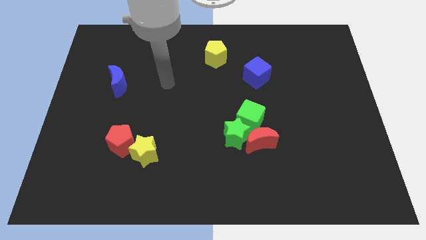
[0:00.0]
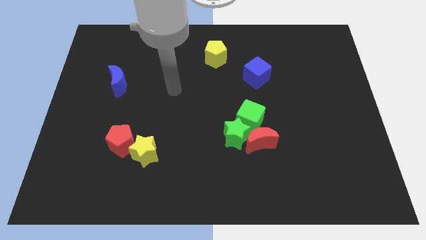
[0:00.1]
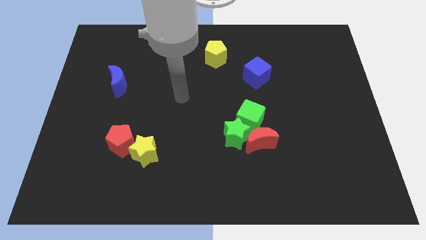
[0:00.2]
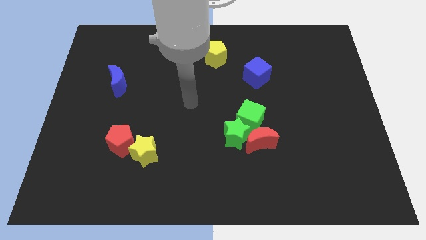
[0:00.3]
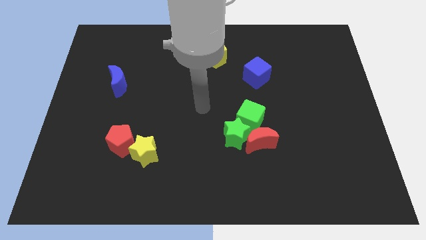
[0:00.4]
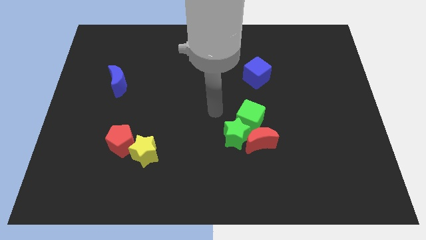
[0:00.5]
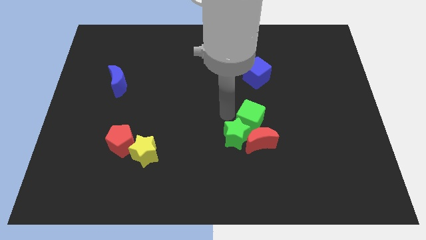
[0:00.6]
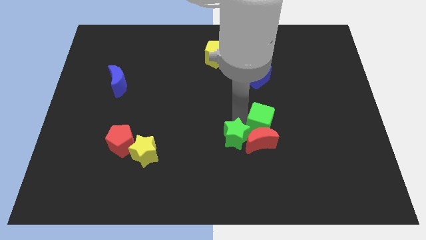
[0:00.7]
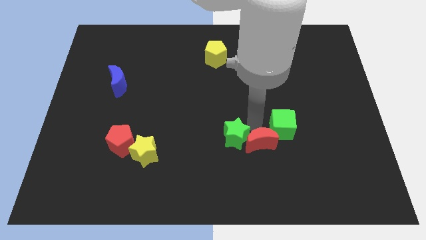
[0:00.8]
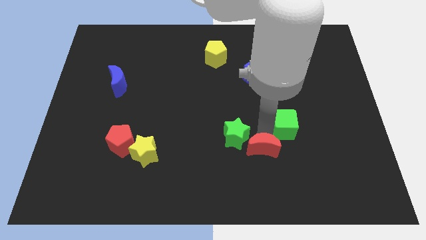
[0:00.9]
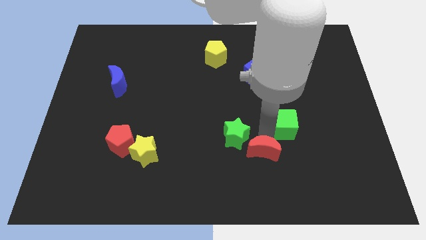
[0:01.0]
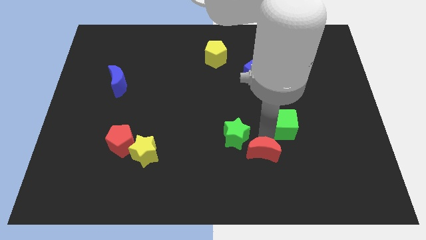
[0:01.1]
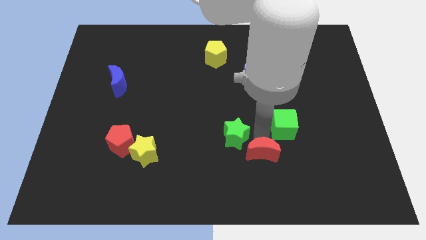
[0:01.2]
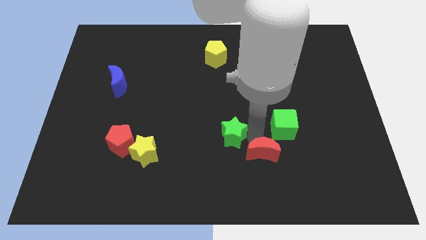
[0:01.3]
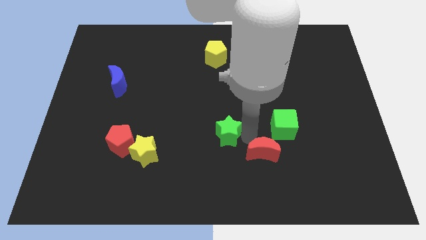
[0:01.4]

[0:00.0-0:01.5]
move the green star away from the red moon and green cube

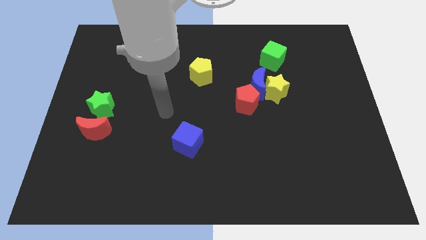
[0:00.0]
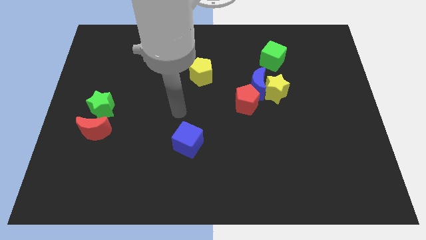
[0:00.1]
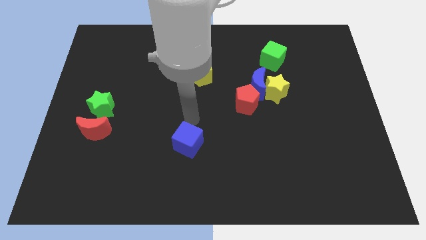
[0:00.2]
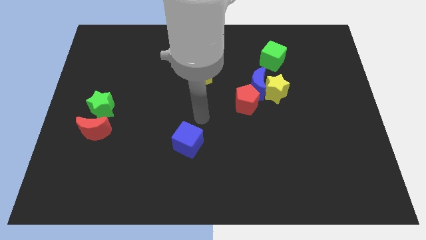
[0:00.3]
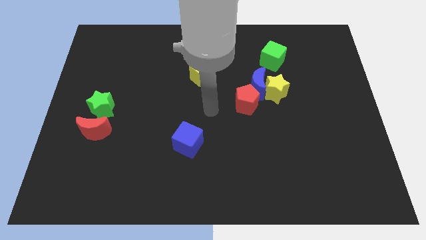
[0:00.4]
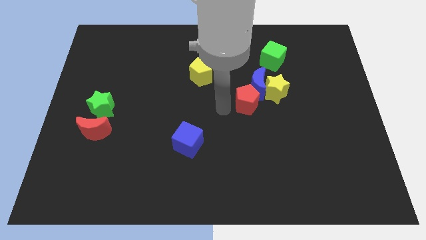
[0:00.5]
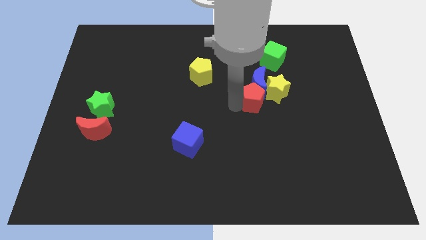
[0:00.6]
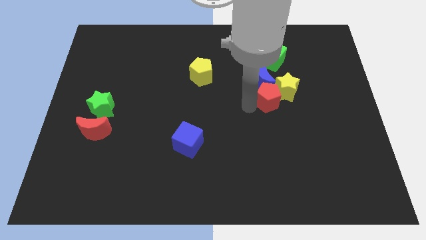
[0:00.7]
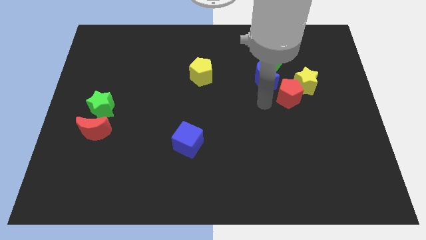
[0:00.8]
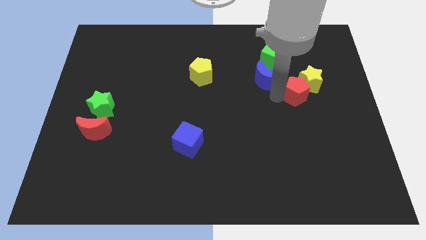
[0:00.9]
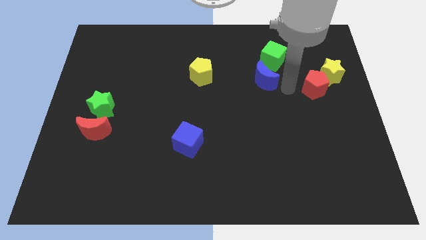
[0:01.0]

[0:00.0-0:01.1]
separate the blue moon from the yellow star and red pentagon

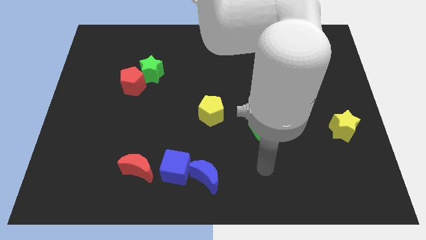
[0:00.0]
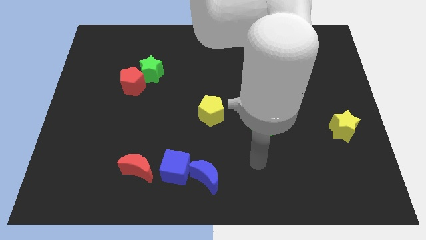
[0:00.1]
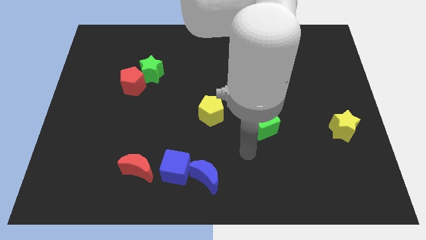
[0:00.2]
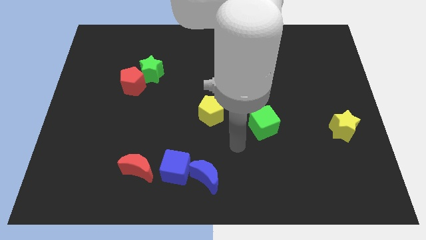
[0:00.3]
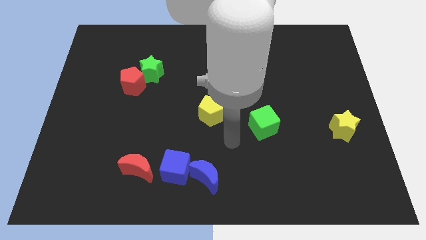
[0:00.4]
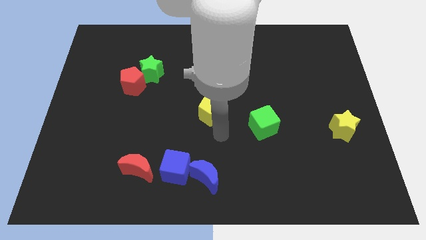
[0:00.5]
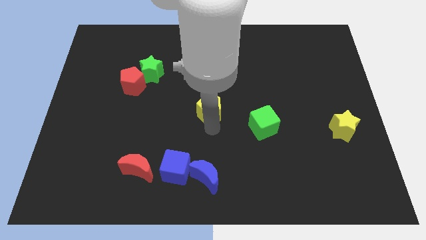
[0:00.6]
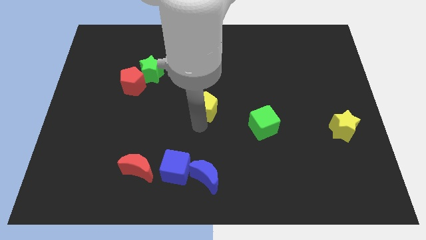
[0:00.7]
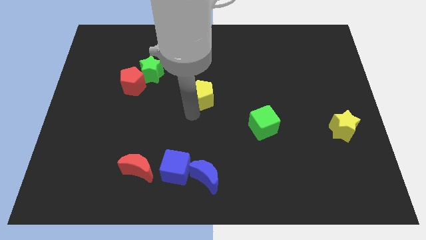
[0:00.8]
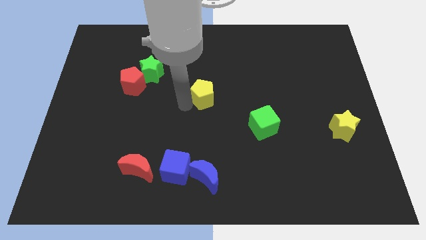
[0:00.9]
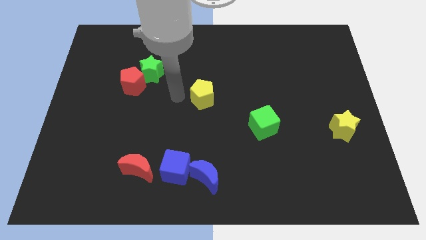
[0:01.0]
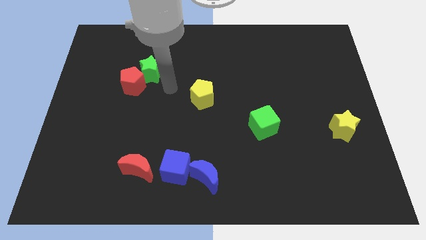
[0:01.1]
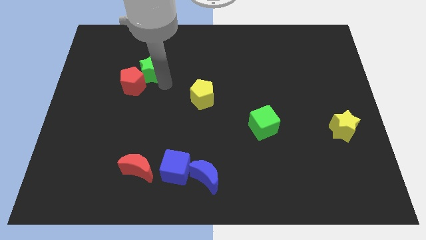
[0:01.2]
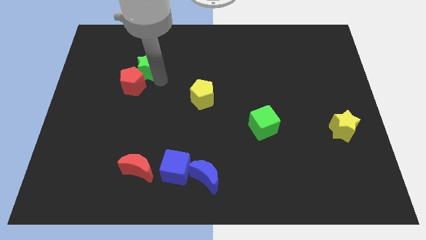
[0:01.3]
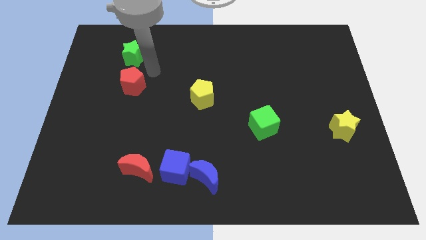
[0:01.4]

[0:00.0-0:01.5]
separate the red pentagon from the green star

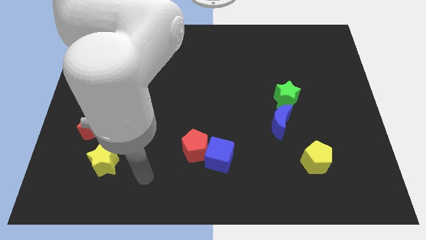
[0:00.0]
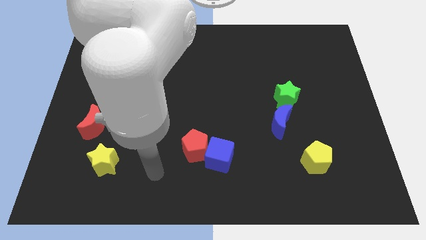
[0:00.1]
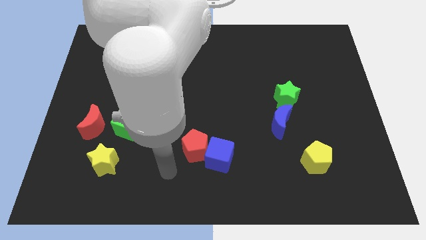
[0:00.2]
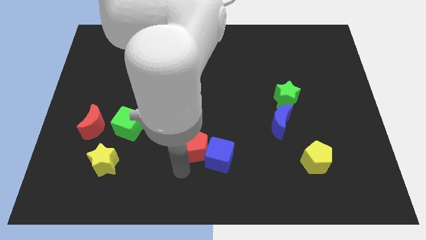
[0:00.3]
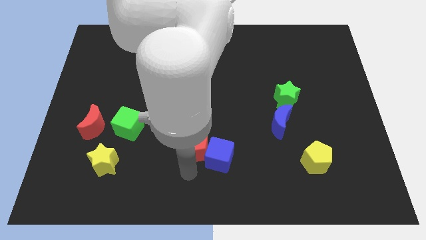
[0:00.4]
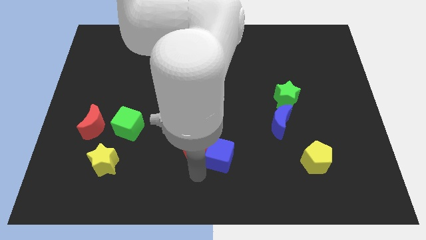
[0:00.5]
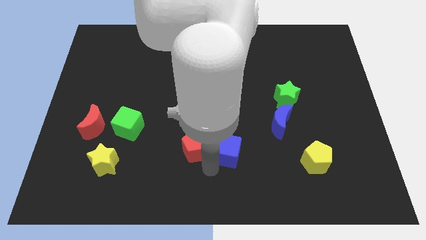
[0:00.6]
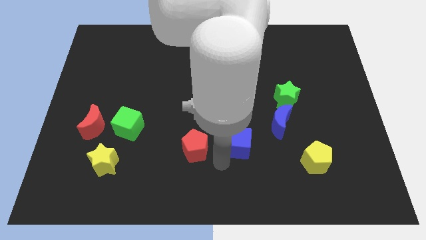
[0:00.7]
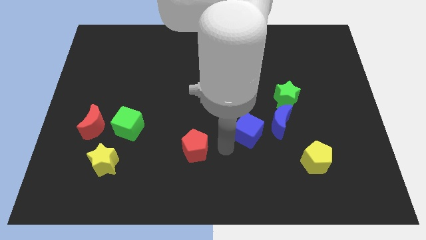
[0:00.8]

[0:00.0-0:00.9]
move the red pentagon away from the blue cube

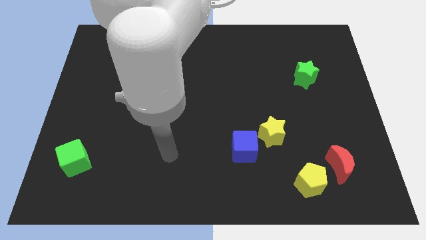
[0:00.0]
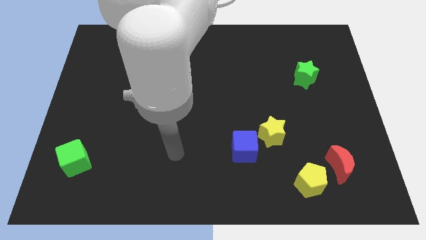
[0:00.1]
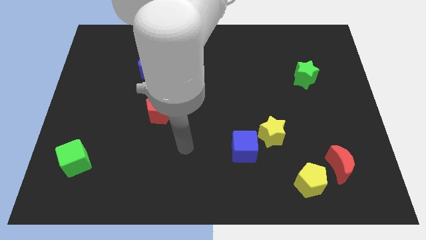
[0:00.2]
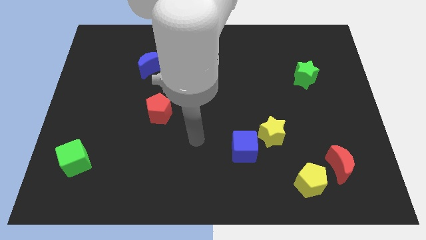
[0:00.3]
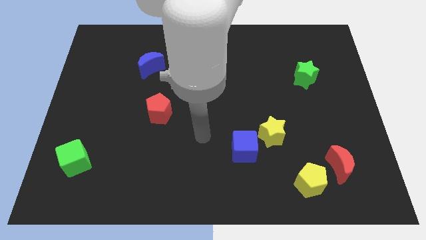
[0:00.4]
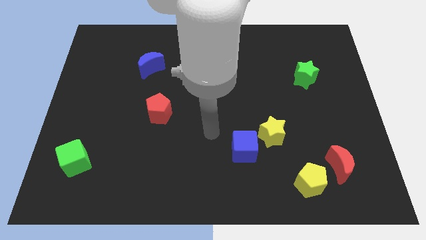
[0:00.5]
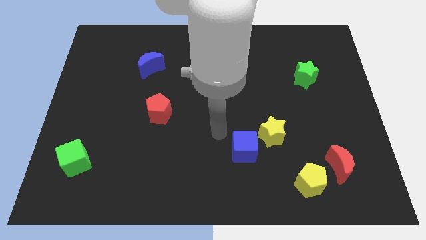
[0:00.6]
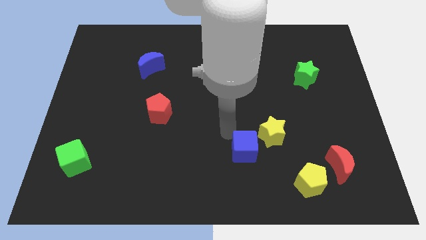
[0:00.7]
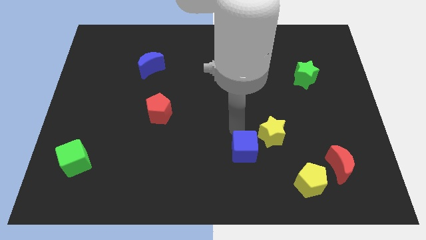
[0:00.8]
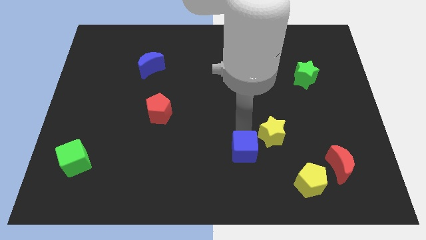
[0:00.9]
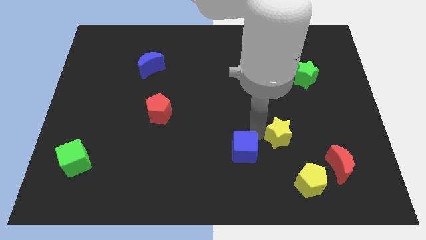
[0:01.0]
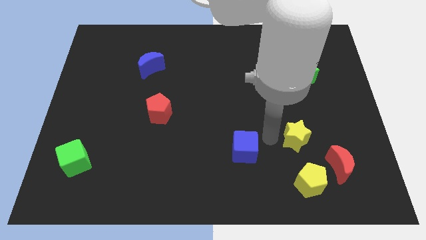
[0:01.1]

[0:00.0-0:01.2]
move the blue cube away from the yellow star

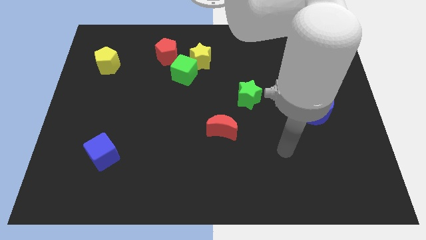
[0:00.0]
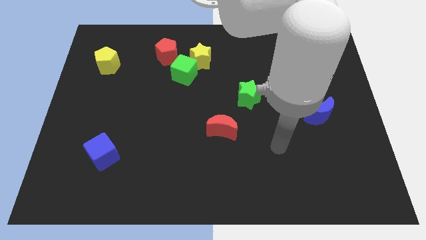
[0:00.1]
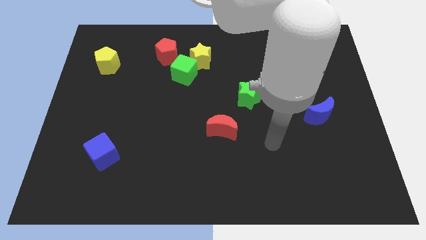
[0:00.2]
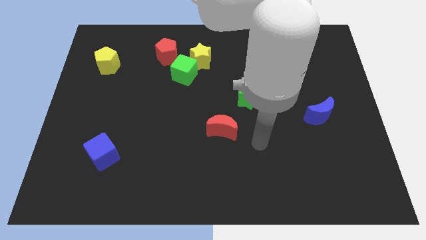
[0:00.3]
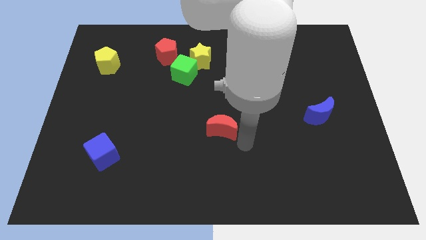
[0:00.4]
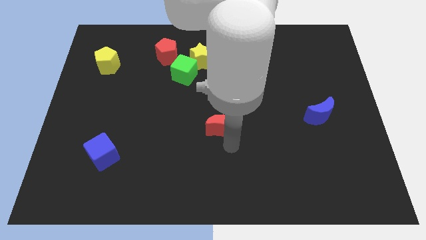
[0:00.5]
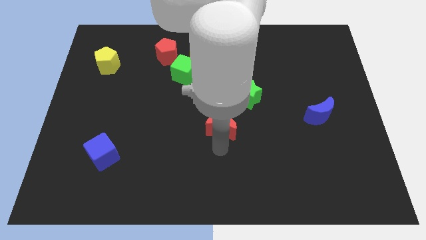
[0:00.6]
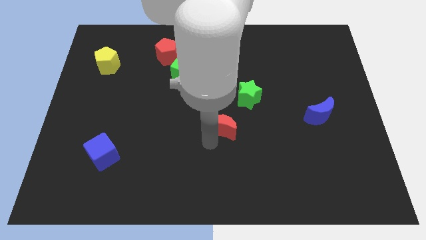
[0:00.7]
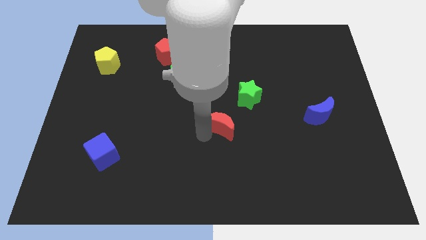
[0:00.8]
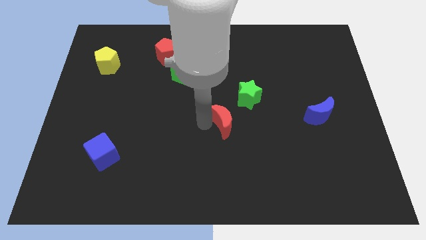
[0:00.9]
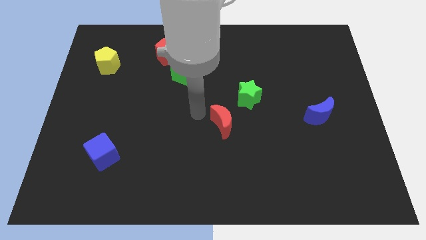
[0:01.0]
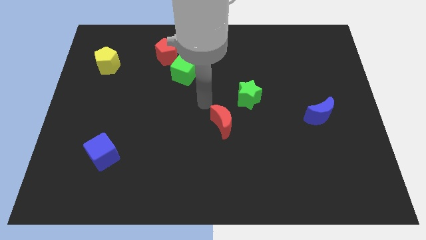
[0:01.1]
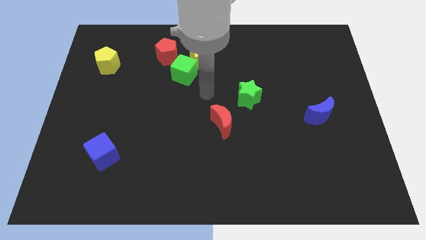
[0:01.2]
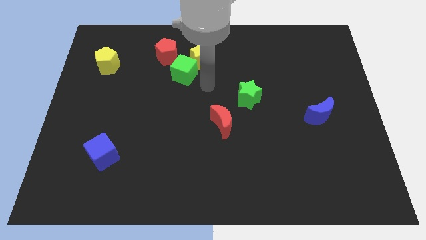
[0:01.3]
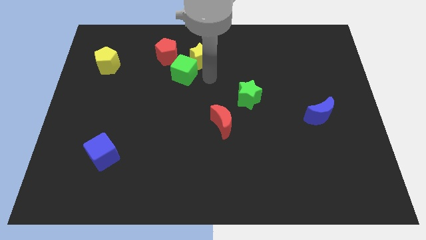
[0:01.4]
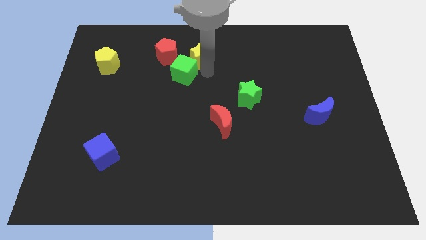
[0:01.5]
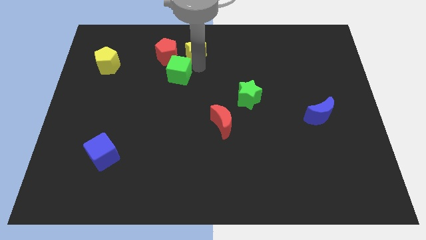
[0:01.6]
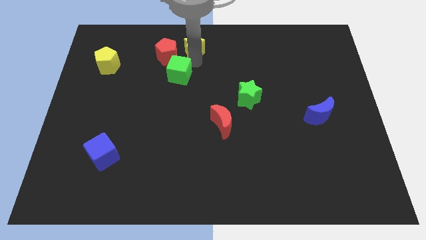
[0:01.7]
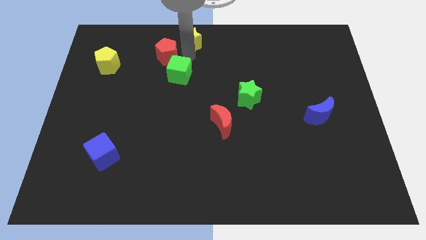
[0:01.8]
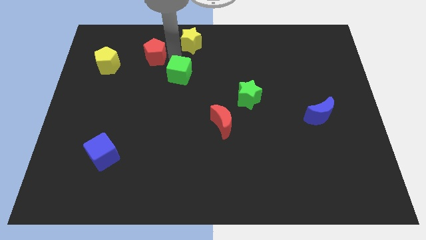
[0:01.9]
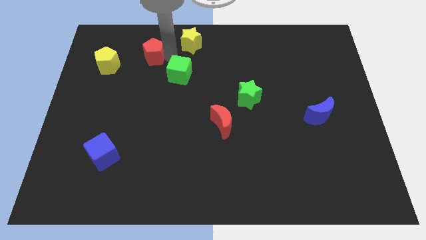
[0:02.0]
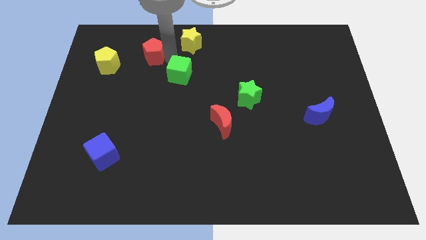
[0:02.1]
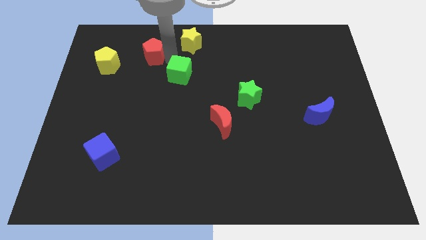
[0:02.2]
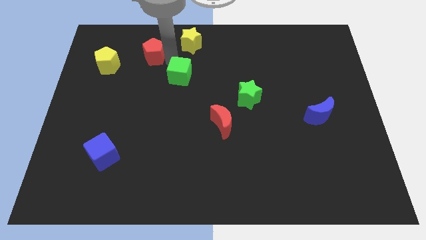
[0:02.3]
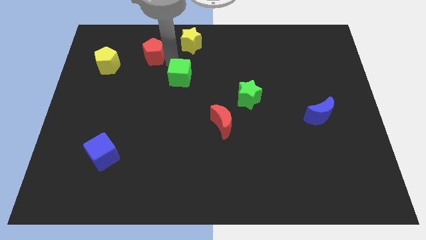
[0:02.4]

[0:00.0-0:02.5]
pull the green cube apart from the yellow star and red pentagon

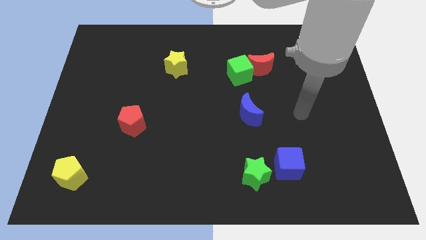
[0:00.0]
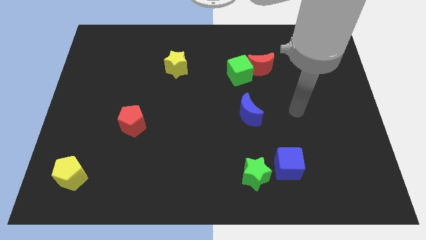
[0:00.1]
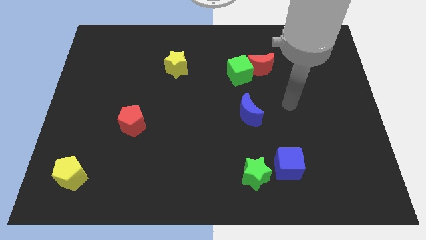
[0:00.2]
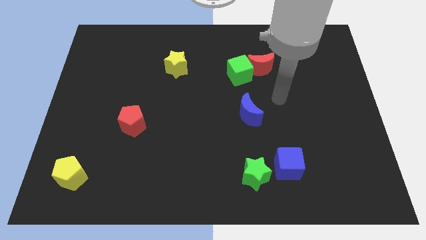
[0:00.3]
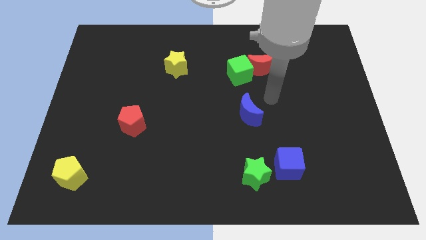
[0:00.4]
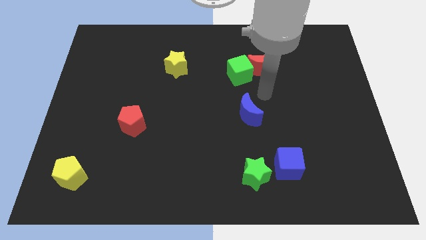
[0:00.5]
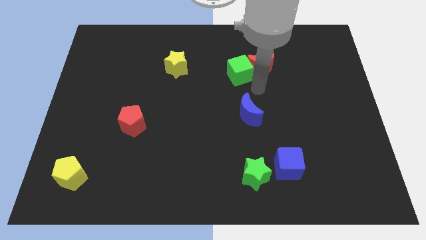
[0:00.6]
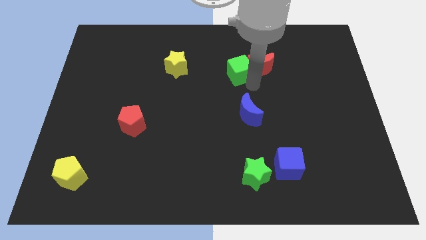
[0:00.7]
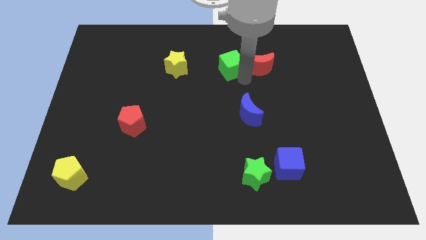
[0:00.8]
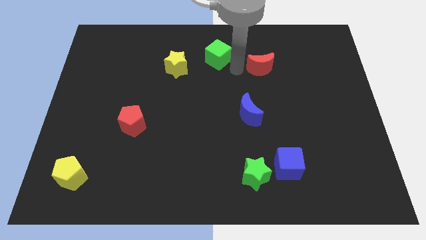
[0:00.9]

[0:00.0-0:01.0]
pull the red moon apart from the green cube
